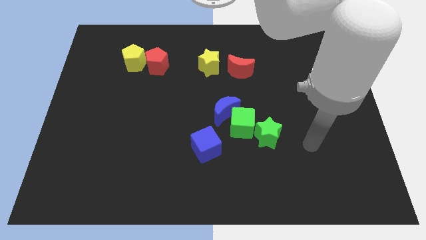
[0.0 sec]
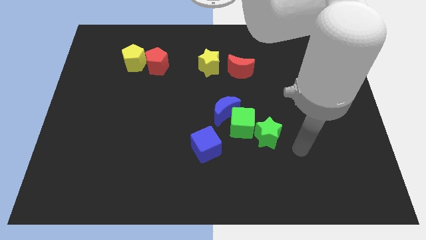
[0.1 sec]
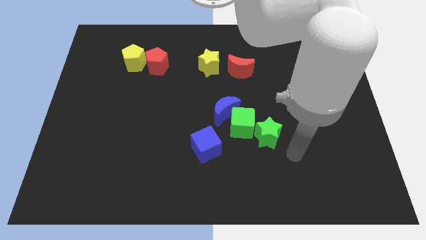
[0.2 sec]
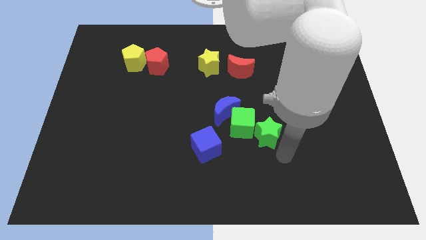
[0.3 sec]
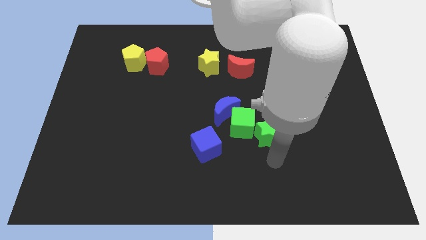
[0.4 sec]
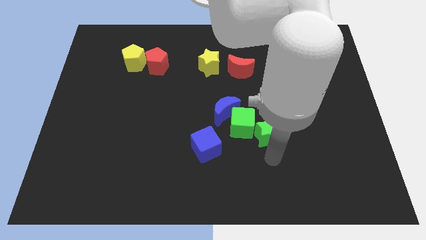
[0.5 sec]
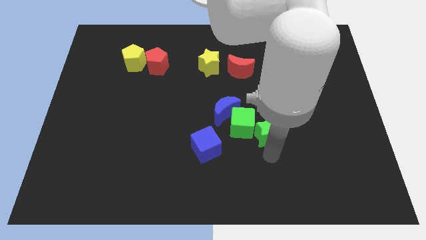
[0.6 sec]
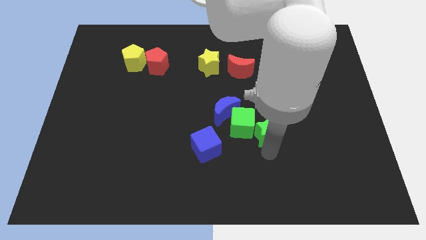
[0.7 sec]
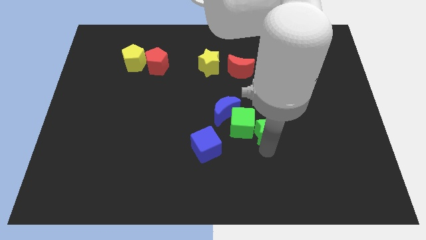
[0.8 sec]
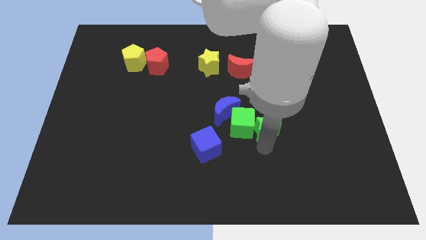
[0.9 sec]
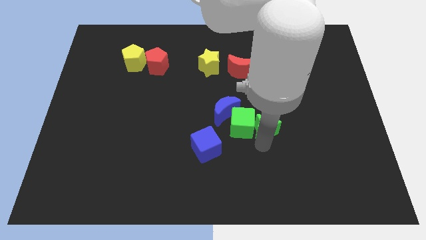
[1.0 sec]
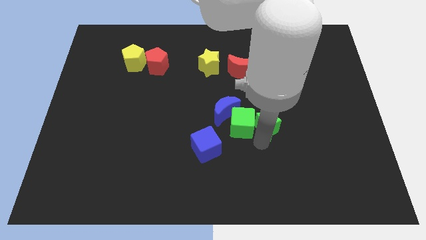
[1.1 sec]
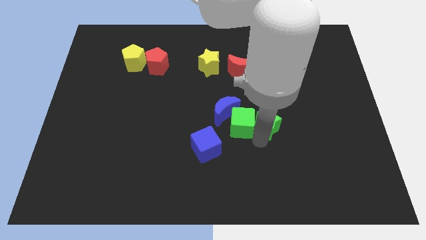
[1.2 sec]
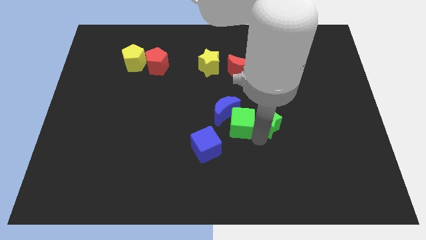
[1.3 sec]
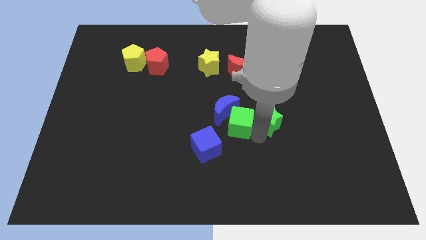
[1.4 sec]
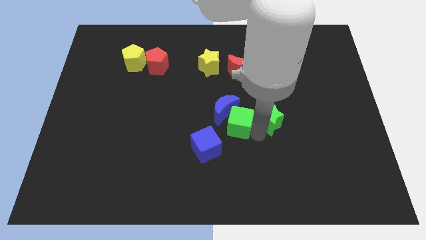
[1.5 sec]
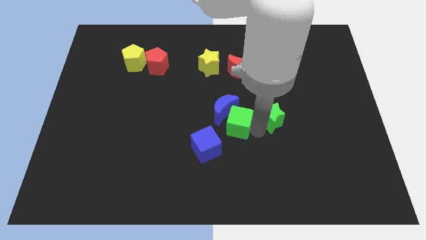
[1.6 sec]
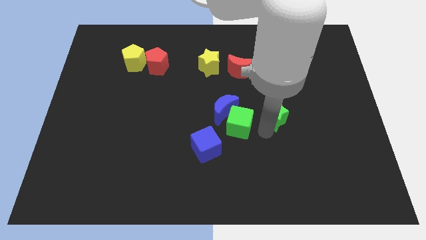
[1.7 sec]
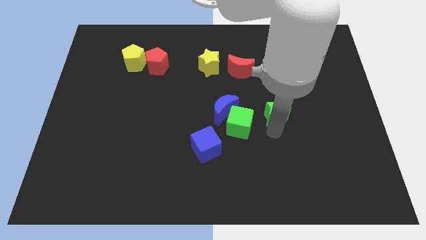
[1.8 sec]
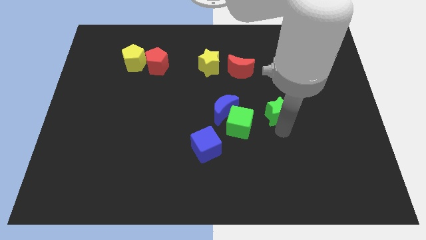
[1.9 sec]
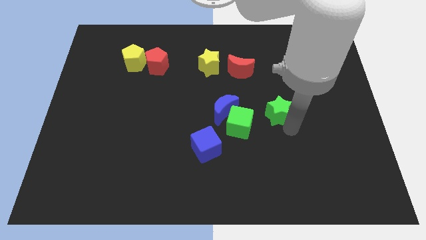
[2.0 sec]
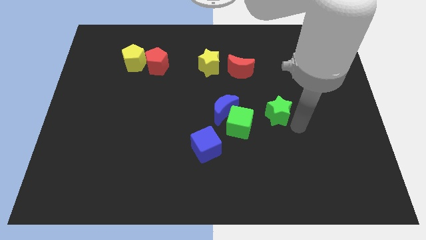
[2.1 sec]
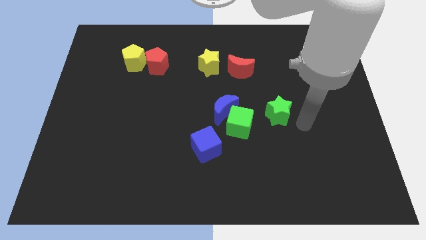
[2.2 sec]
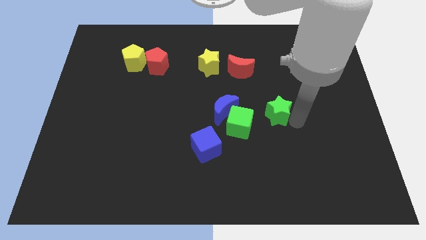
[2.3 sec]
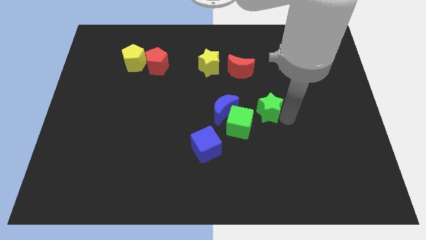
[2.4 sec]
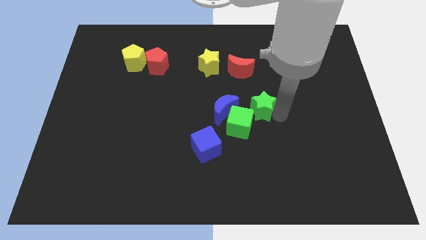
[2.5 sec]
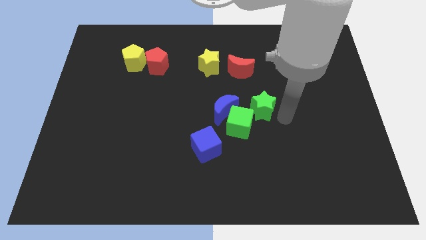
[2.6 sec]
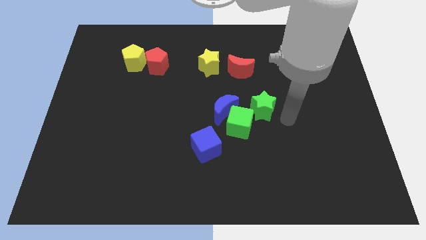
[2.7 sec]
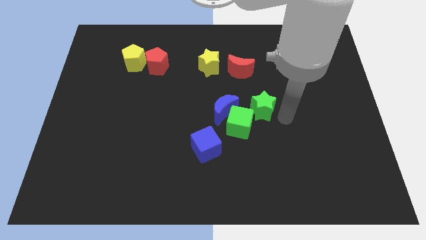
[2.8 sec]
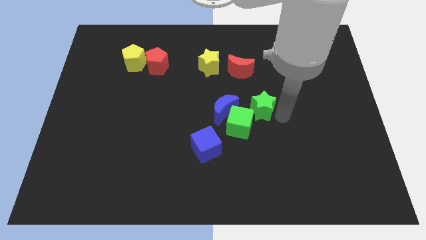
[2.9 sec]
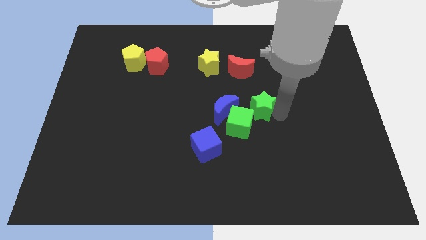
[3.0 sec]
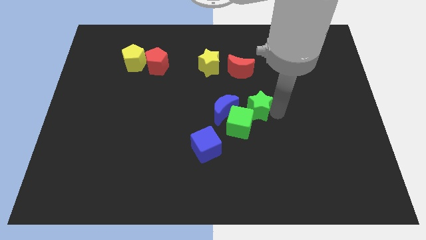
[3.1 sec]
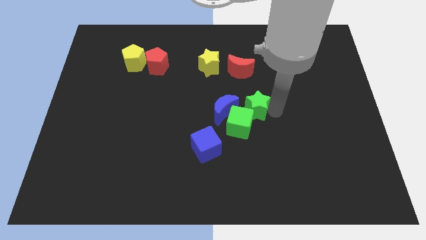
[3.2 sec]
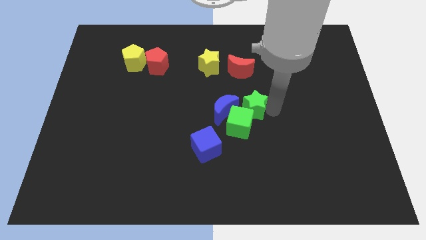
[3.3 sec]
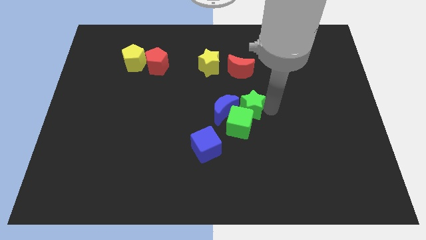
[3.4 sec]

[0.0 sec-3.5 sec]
slightly move the green star up and then to the left

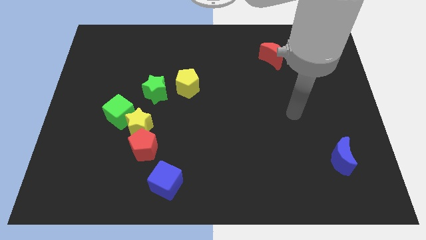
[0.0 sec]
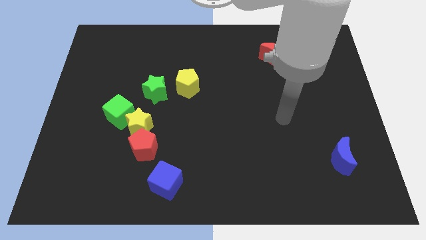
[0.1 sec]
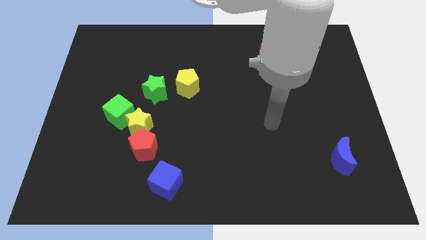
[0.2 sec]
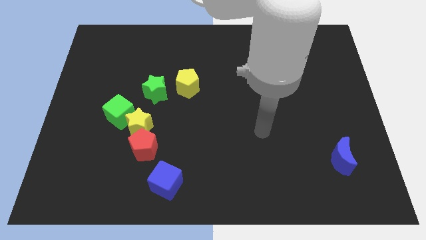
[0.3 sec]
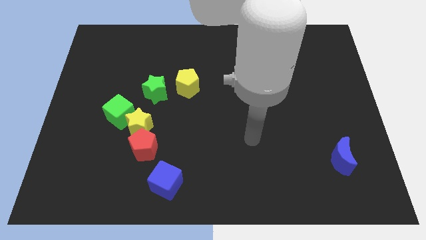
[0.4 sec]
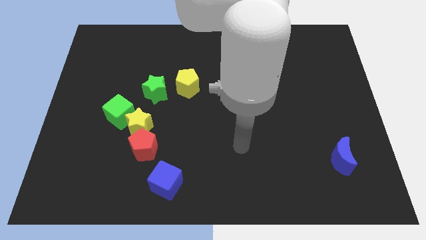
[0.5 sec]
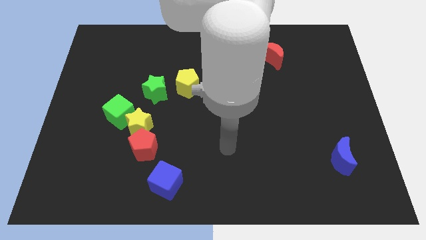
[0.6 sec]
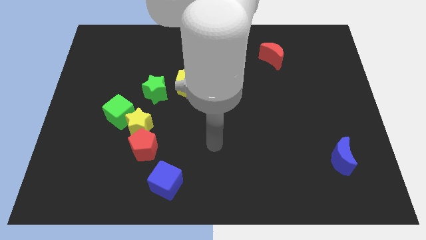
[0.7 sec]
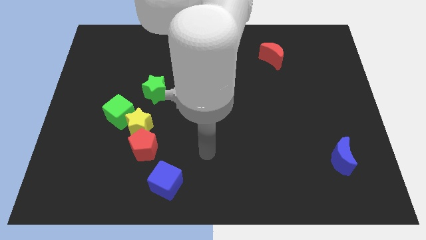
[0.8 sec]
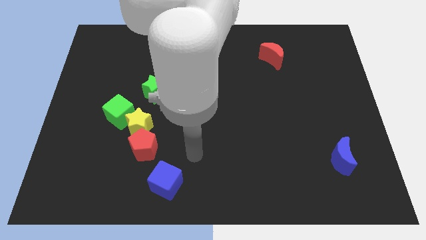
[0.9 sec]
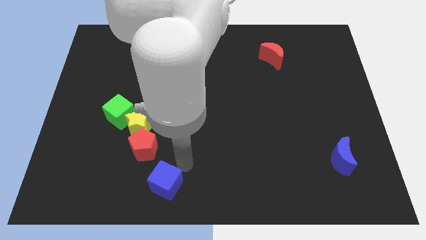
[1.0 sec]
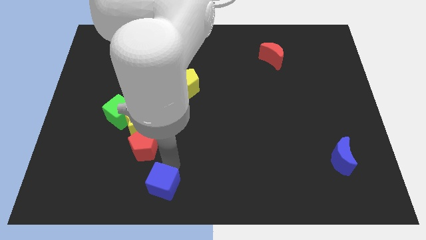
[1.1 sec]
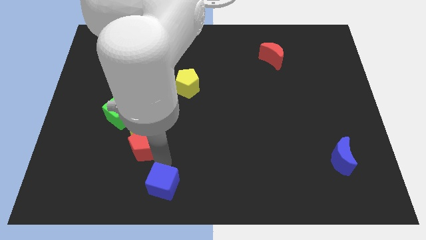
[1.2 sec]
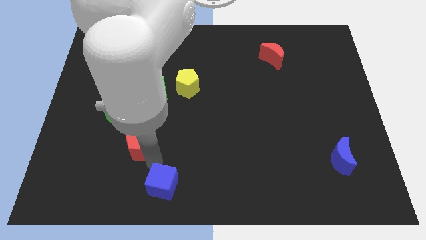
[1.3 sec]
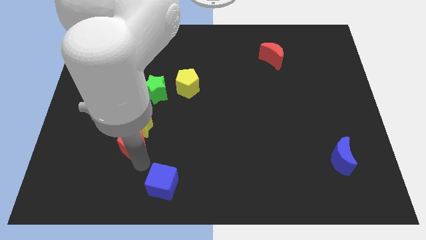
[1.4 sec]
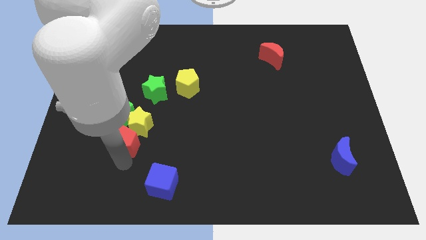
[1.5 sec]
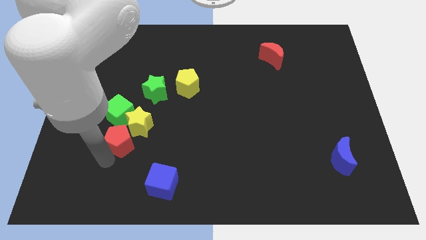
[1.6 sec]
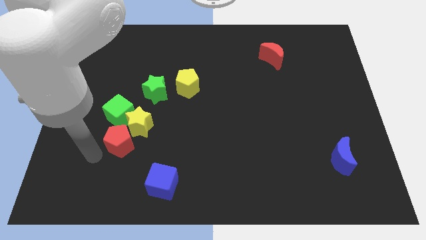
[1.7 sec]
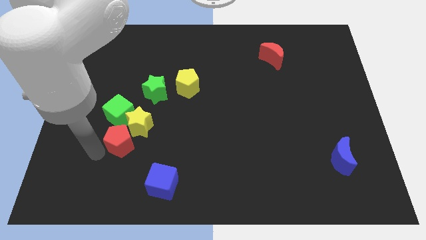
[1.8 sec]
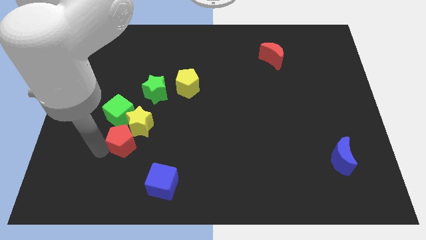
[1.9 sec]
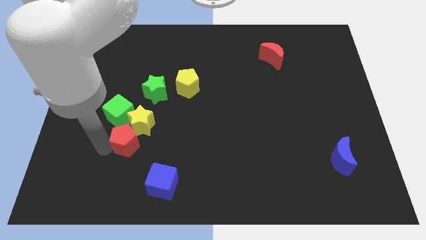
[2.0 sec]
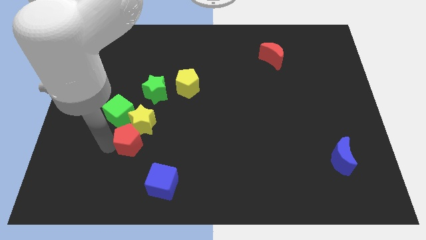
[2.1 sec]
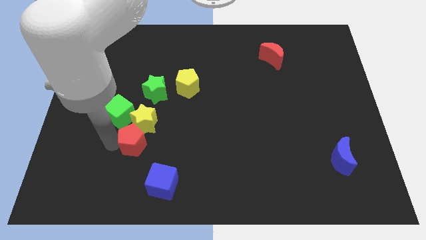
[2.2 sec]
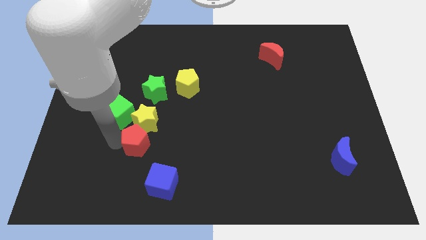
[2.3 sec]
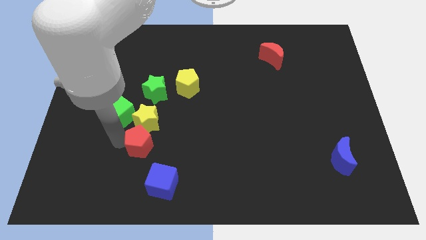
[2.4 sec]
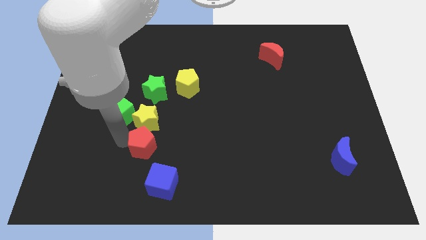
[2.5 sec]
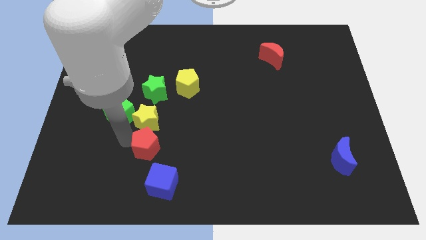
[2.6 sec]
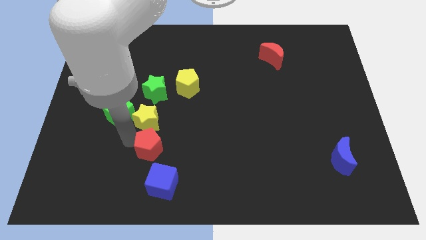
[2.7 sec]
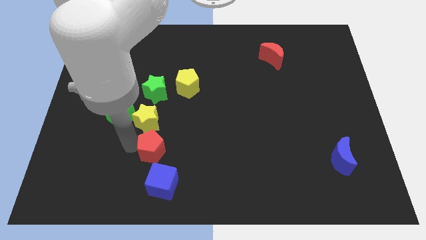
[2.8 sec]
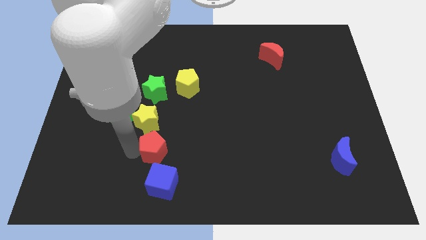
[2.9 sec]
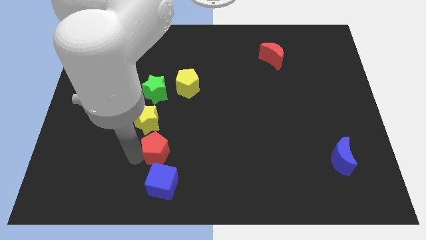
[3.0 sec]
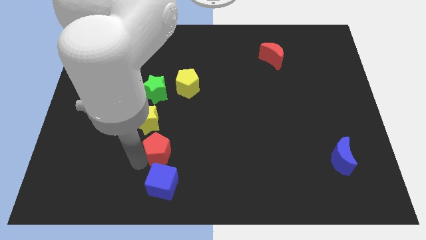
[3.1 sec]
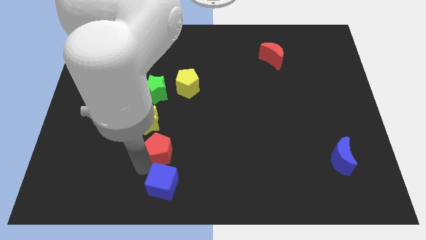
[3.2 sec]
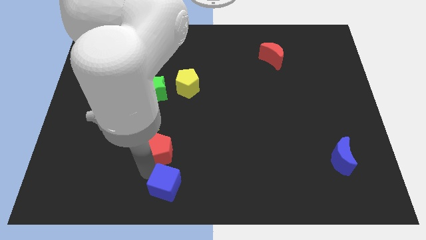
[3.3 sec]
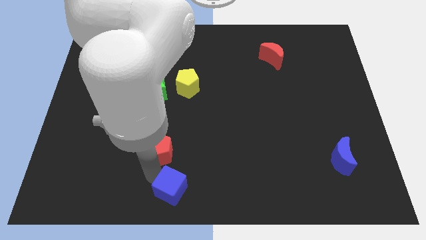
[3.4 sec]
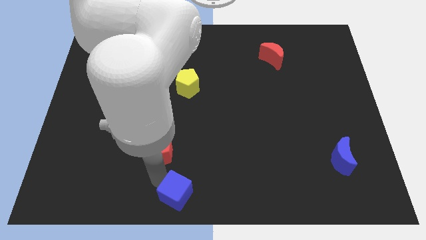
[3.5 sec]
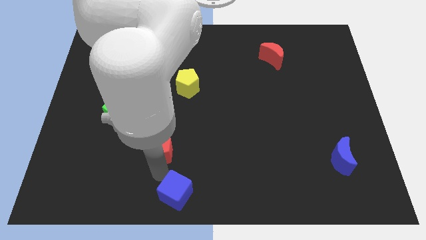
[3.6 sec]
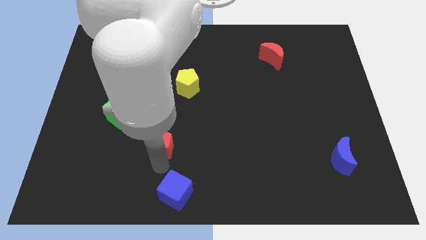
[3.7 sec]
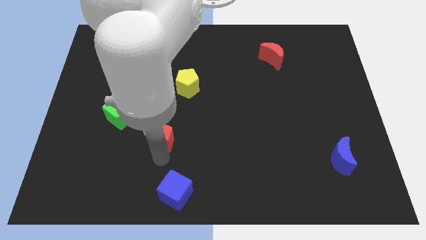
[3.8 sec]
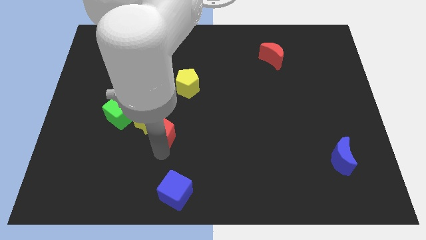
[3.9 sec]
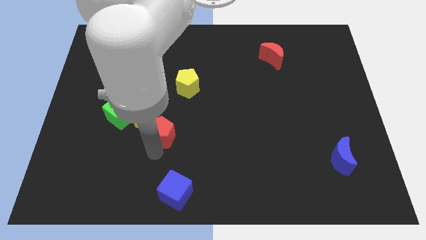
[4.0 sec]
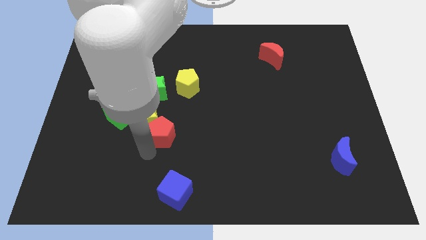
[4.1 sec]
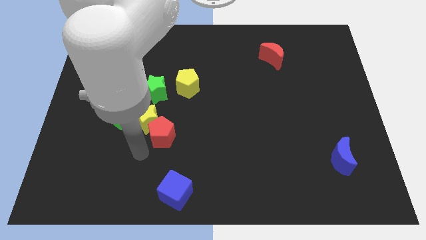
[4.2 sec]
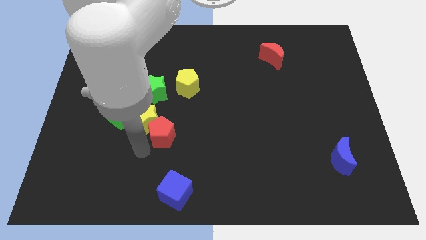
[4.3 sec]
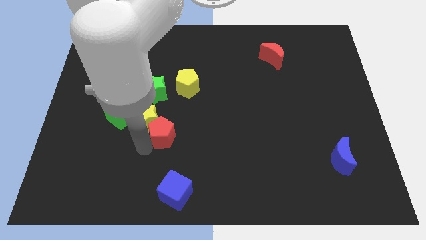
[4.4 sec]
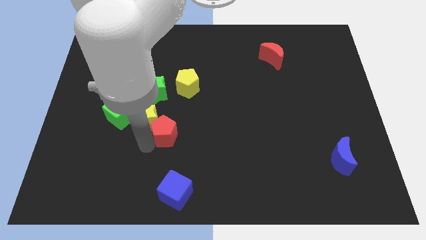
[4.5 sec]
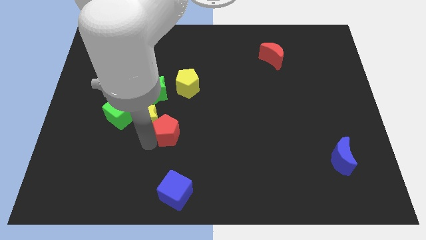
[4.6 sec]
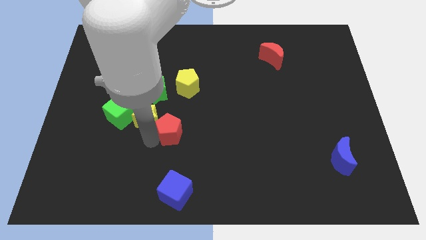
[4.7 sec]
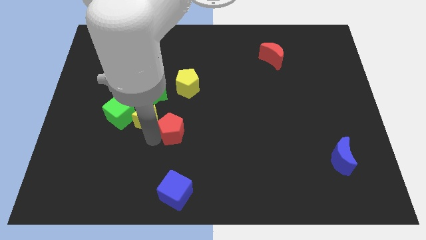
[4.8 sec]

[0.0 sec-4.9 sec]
slide the red pentagon a little upwards and then to the right
